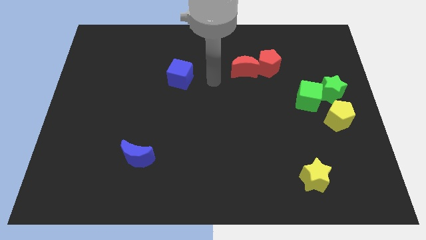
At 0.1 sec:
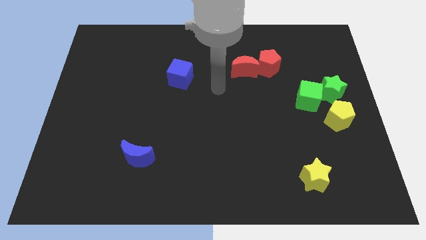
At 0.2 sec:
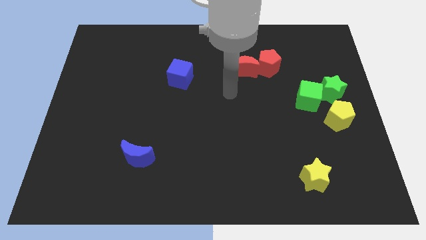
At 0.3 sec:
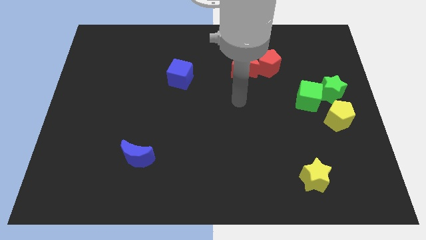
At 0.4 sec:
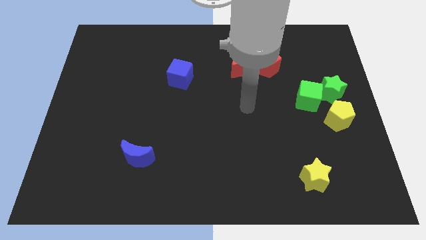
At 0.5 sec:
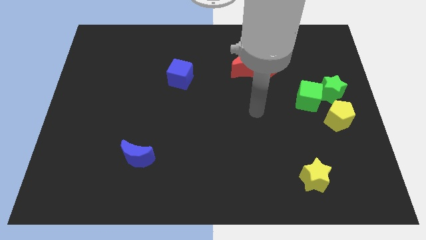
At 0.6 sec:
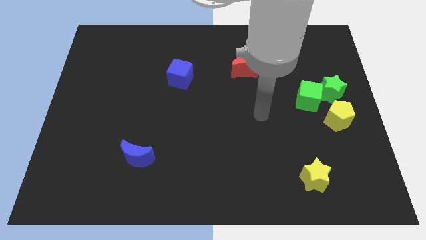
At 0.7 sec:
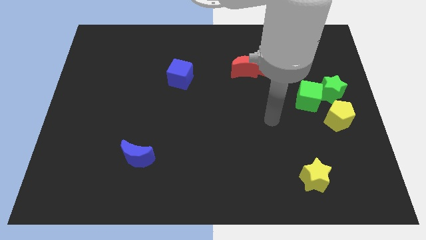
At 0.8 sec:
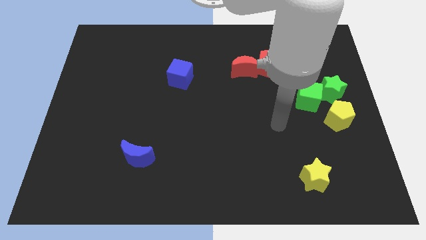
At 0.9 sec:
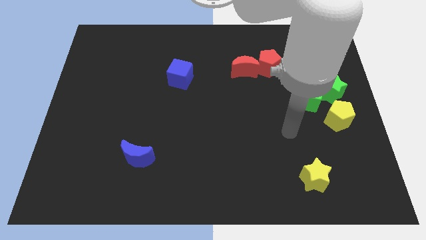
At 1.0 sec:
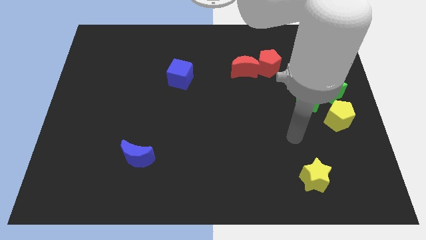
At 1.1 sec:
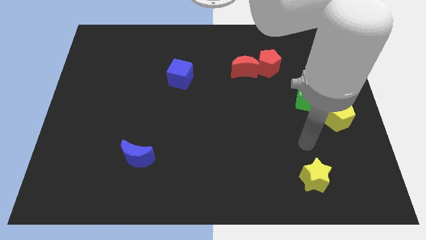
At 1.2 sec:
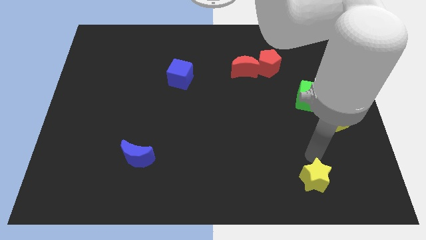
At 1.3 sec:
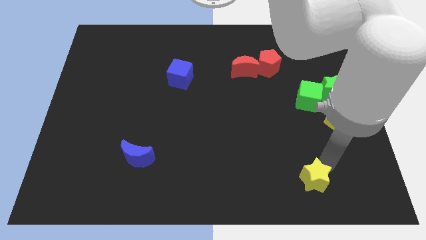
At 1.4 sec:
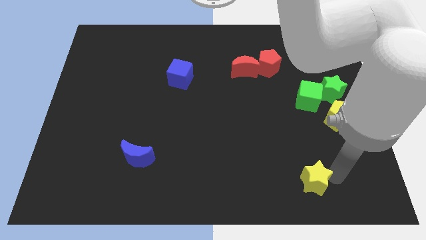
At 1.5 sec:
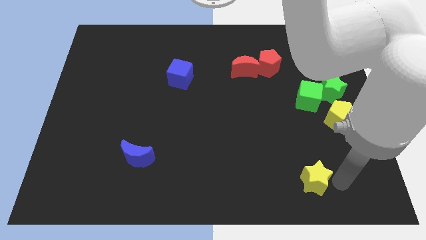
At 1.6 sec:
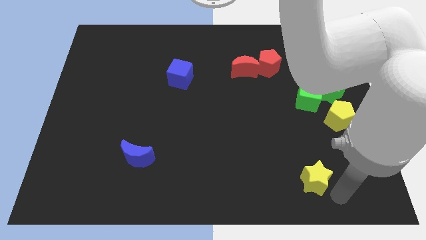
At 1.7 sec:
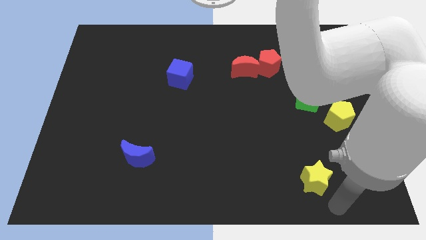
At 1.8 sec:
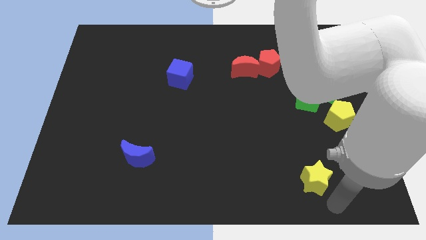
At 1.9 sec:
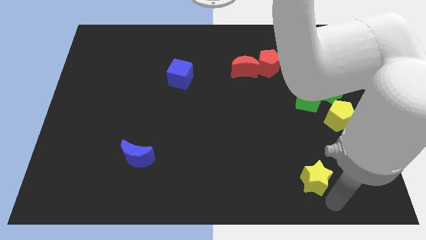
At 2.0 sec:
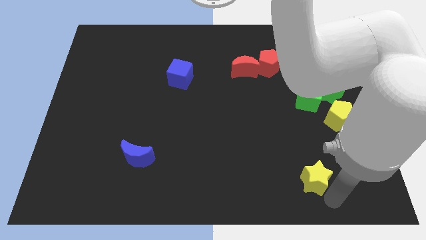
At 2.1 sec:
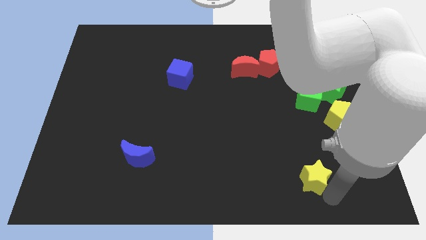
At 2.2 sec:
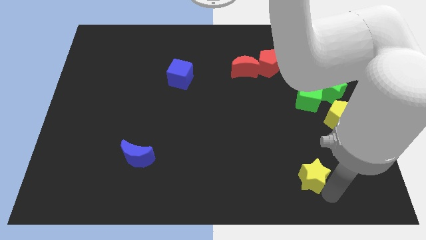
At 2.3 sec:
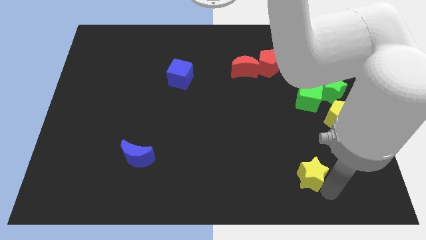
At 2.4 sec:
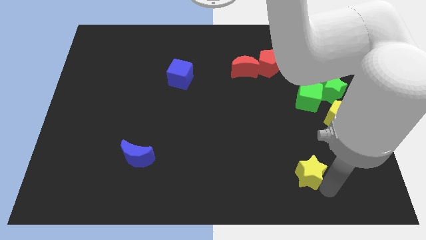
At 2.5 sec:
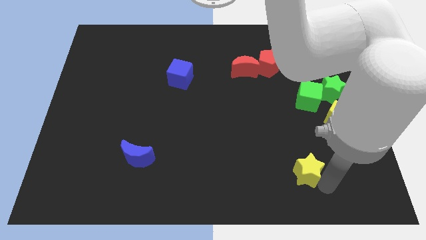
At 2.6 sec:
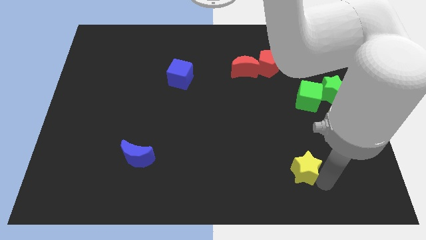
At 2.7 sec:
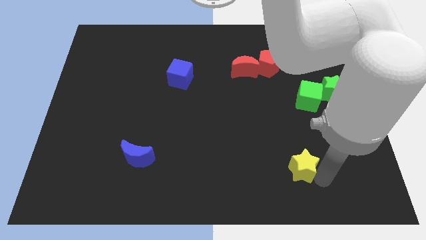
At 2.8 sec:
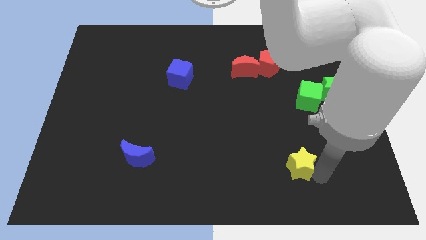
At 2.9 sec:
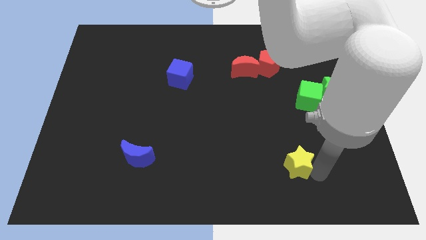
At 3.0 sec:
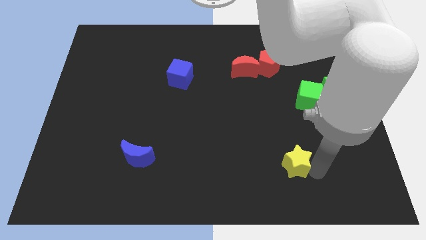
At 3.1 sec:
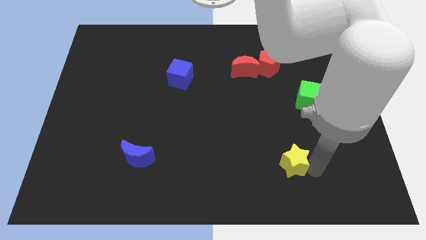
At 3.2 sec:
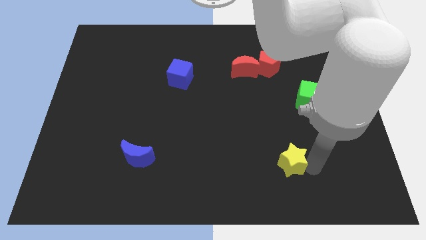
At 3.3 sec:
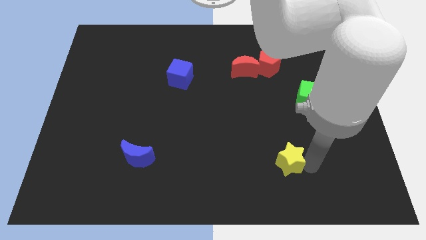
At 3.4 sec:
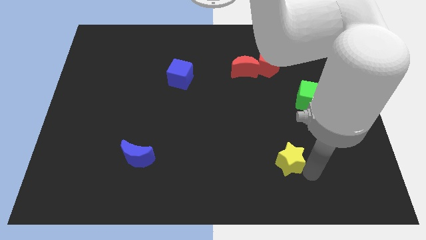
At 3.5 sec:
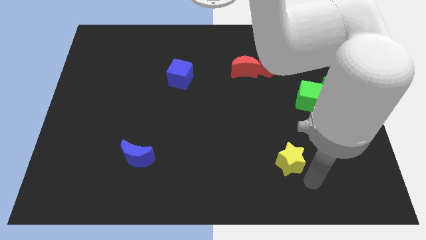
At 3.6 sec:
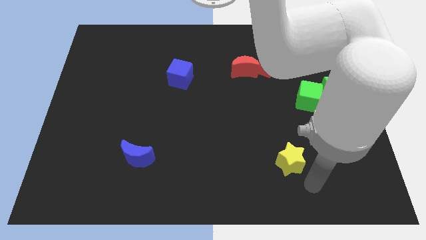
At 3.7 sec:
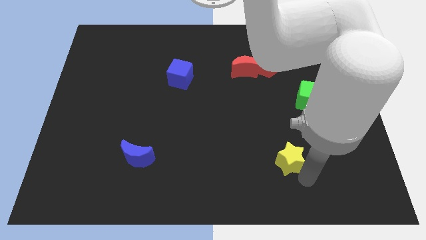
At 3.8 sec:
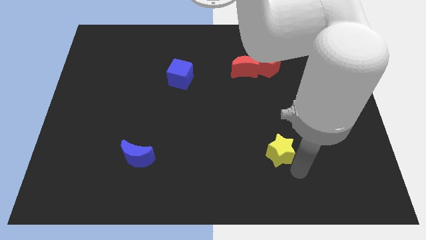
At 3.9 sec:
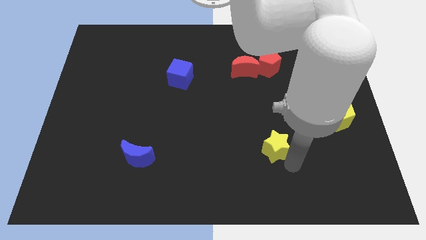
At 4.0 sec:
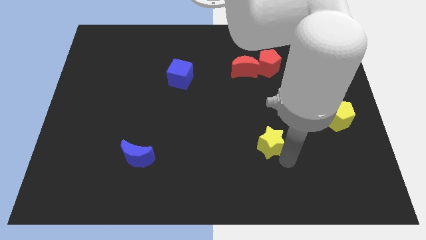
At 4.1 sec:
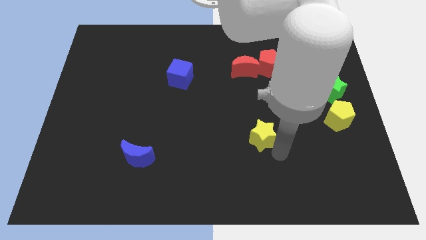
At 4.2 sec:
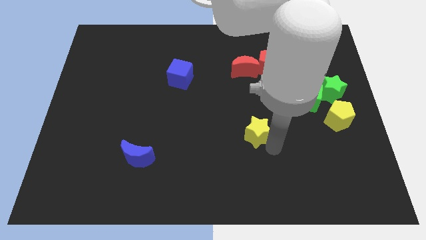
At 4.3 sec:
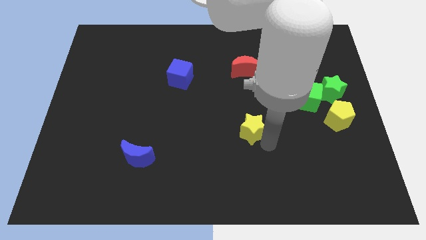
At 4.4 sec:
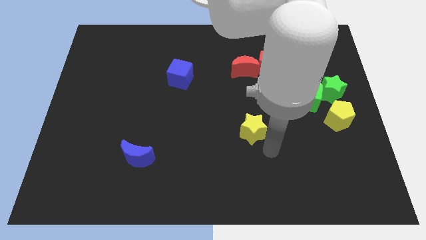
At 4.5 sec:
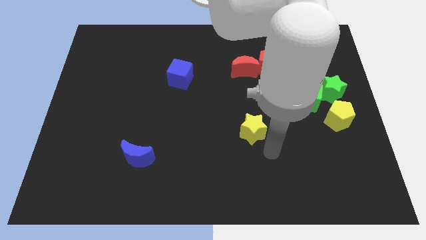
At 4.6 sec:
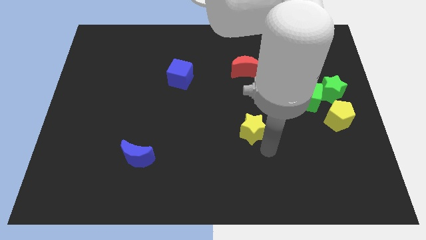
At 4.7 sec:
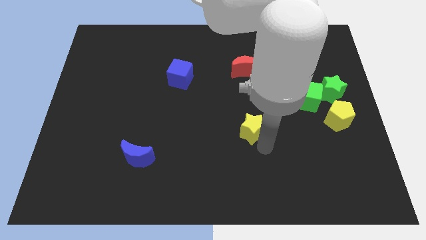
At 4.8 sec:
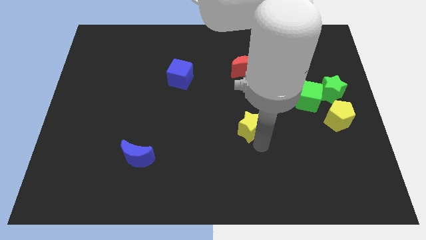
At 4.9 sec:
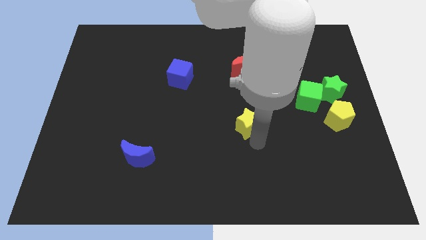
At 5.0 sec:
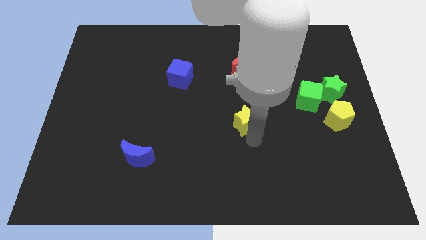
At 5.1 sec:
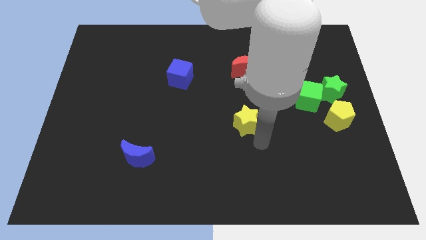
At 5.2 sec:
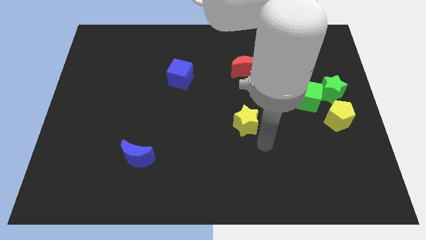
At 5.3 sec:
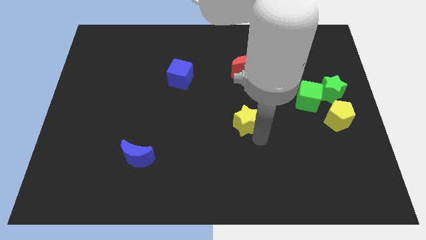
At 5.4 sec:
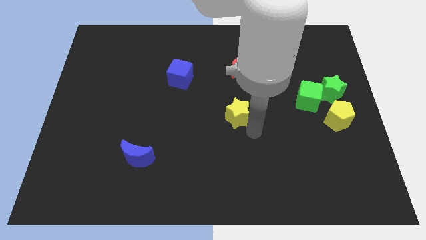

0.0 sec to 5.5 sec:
move the yellow star up and then to the left

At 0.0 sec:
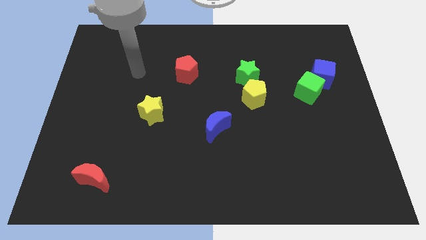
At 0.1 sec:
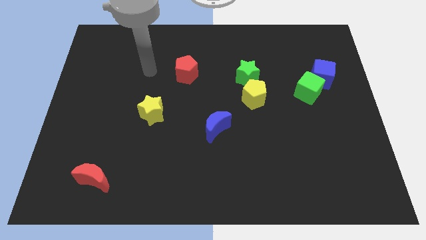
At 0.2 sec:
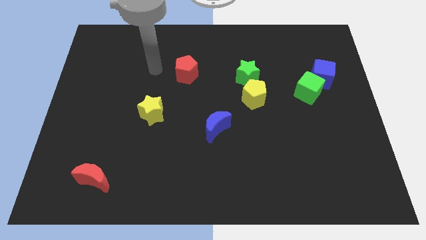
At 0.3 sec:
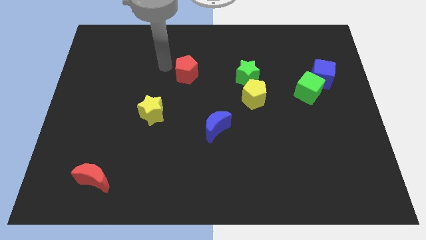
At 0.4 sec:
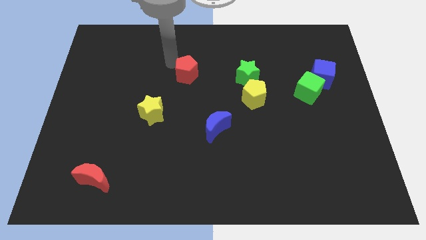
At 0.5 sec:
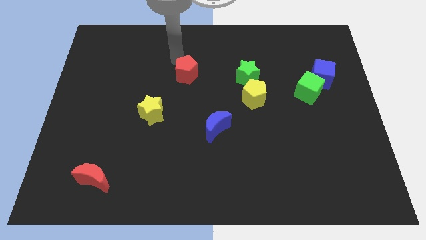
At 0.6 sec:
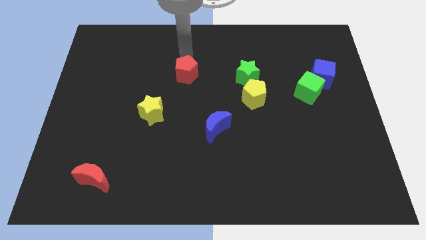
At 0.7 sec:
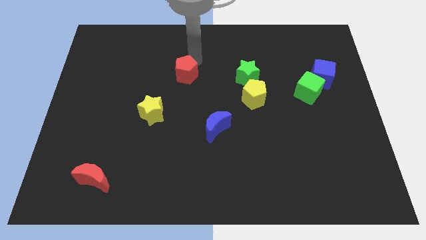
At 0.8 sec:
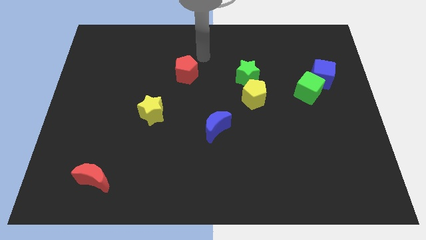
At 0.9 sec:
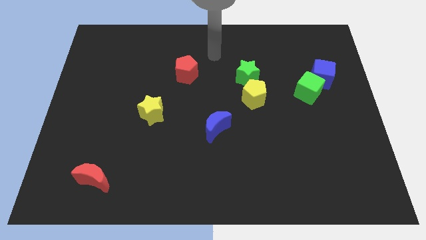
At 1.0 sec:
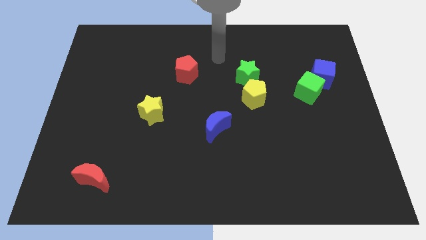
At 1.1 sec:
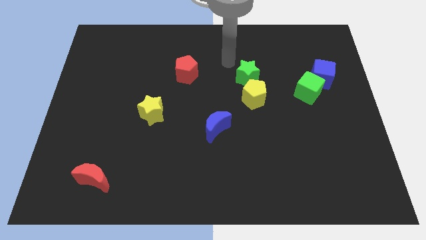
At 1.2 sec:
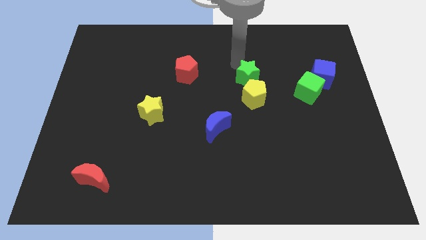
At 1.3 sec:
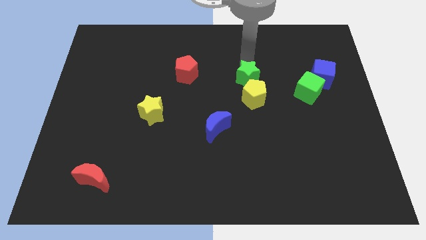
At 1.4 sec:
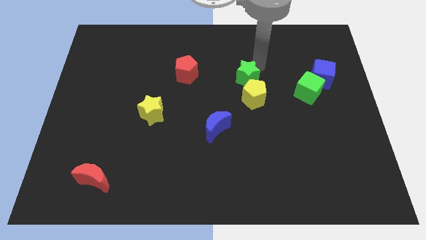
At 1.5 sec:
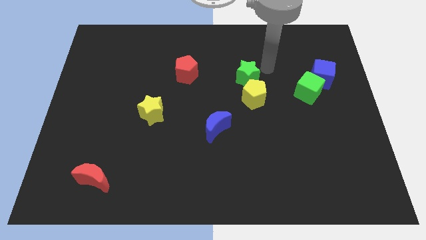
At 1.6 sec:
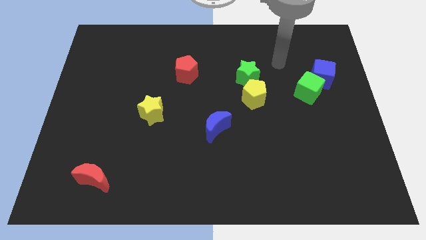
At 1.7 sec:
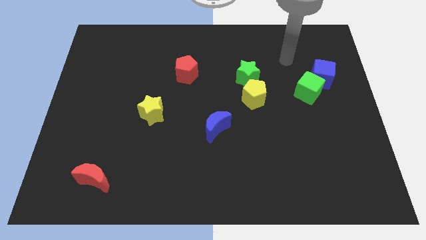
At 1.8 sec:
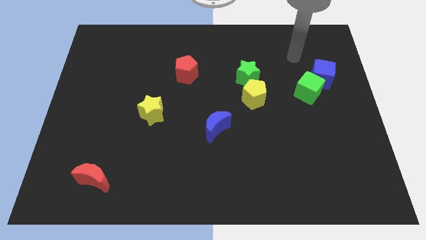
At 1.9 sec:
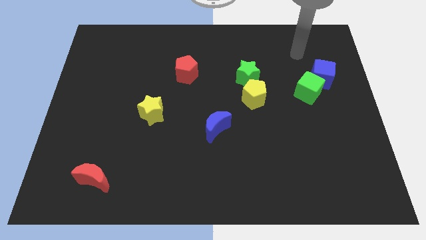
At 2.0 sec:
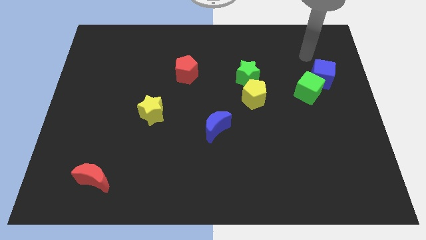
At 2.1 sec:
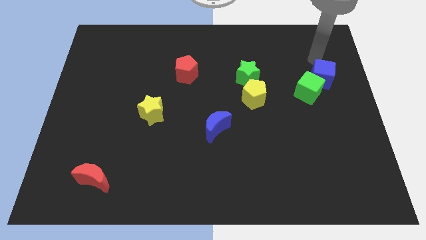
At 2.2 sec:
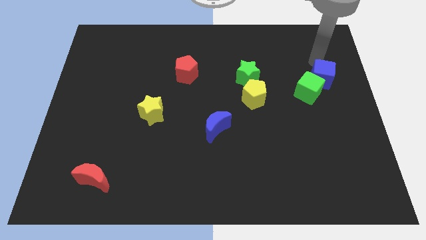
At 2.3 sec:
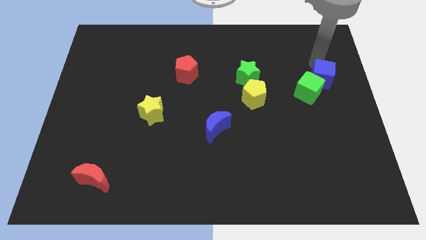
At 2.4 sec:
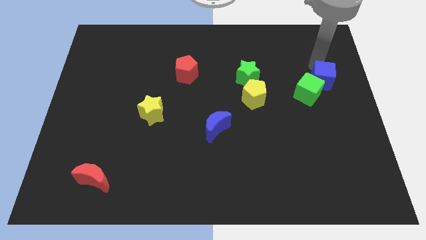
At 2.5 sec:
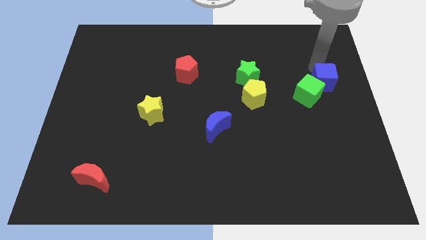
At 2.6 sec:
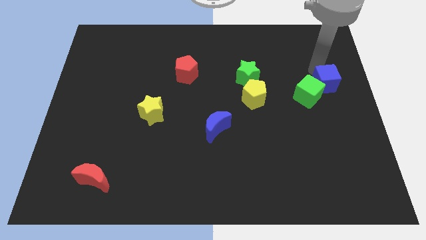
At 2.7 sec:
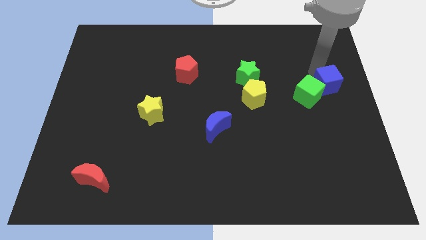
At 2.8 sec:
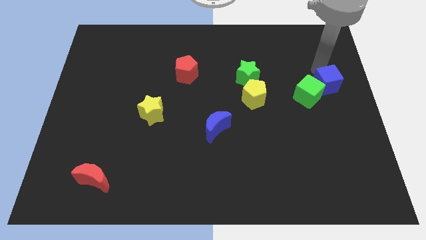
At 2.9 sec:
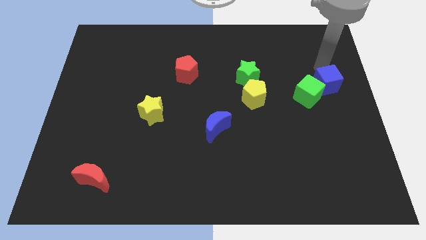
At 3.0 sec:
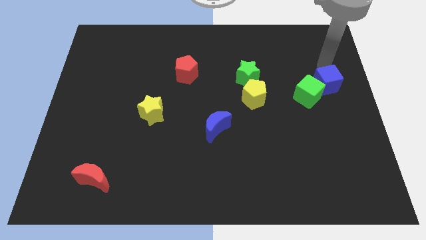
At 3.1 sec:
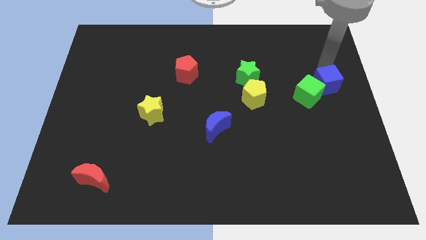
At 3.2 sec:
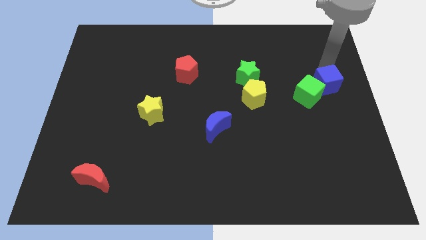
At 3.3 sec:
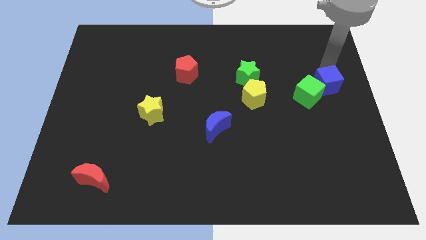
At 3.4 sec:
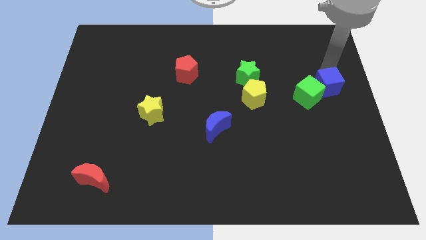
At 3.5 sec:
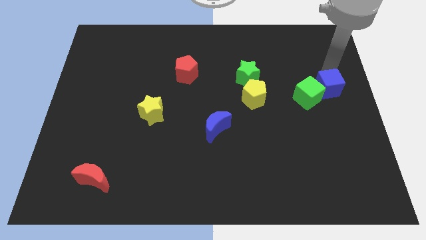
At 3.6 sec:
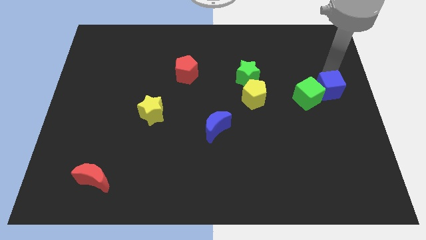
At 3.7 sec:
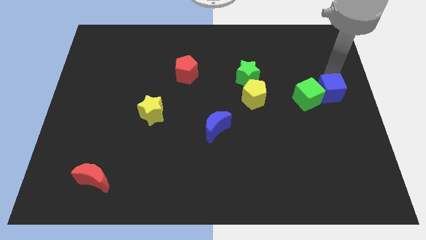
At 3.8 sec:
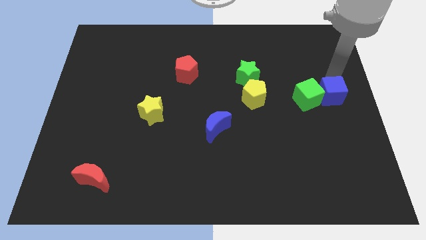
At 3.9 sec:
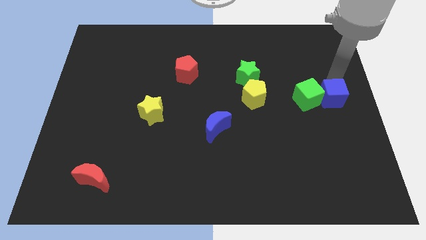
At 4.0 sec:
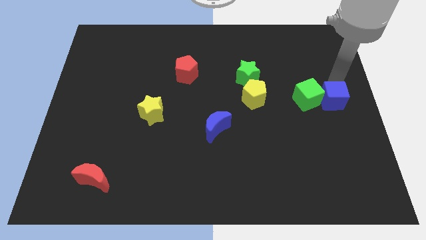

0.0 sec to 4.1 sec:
move the blue cube downwards a little
